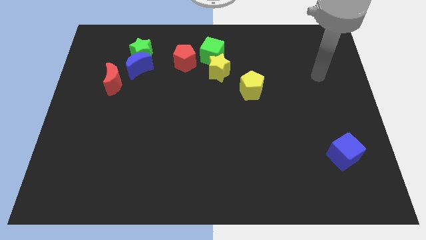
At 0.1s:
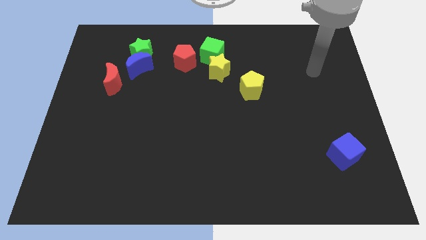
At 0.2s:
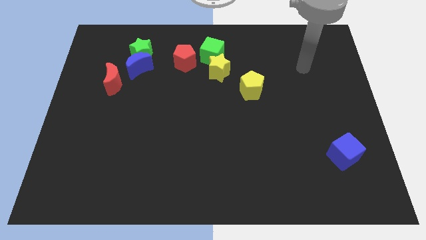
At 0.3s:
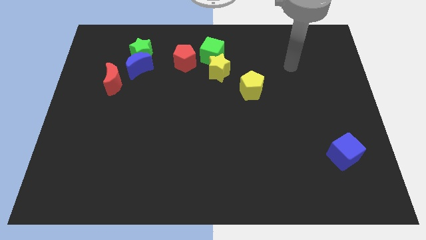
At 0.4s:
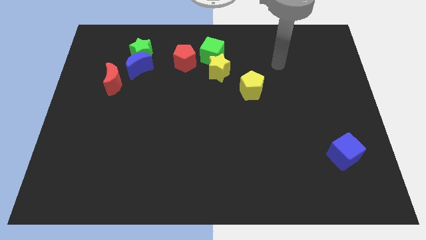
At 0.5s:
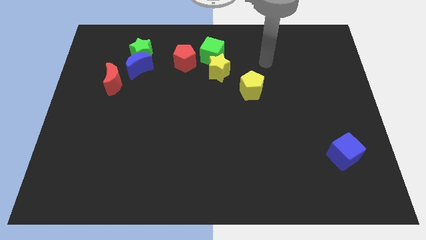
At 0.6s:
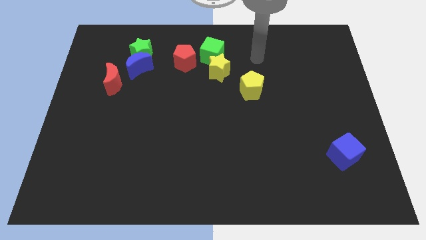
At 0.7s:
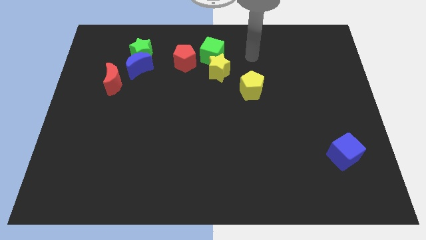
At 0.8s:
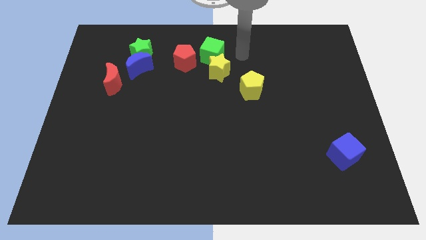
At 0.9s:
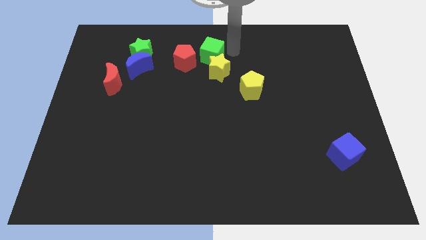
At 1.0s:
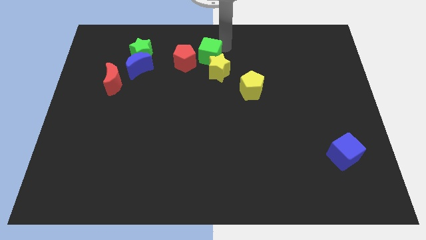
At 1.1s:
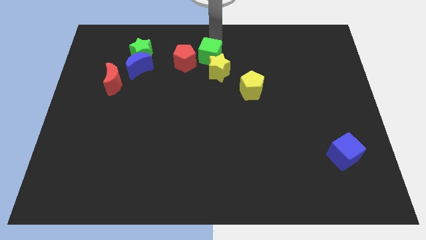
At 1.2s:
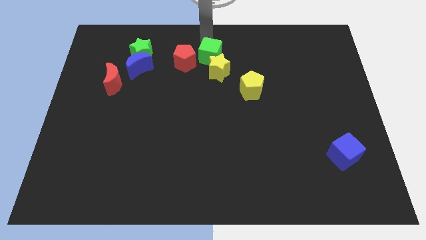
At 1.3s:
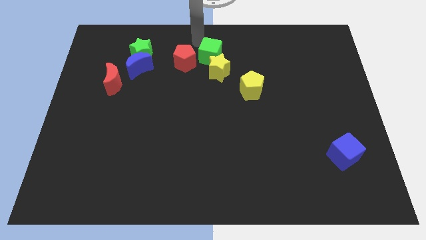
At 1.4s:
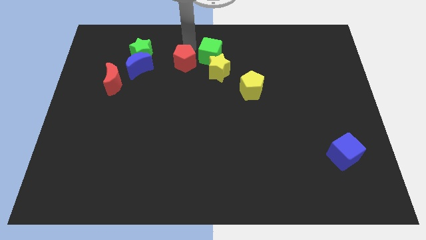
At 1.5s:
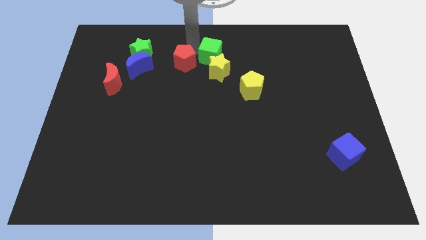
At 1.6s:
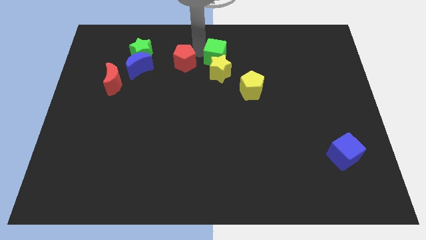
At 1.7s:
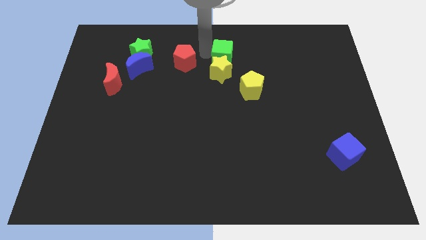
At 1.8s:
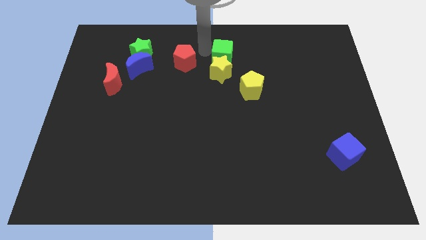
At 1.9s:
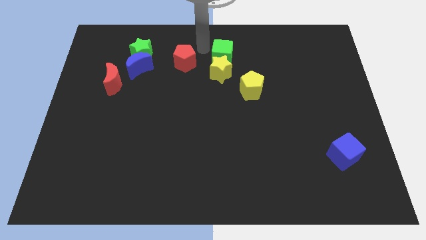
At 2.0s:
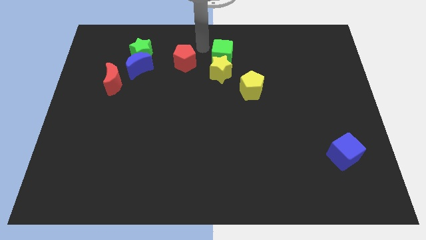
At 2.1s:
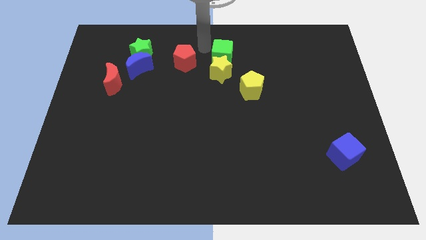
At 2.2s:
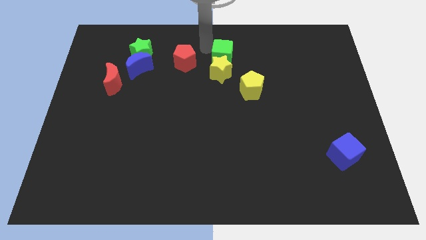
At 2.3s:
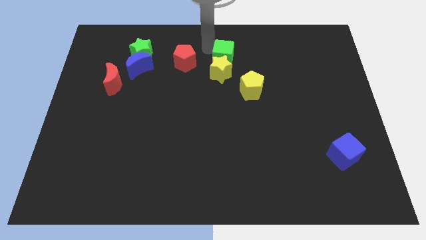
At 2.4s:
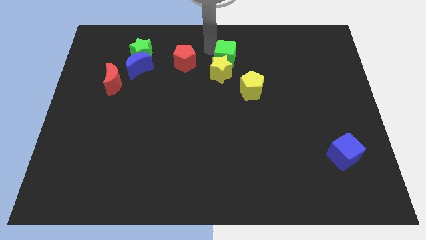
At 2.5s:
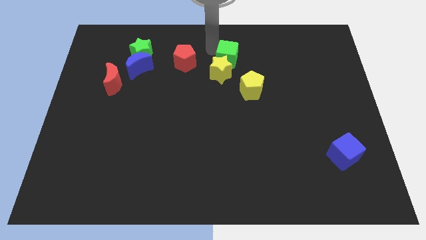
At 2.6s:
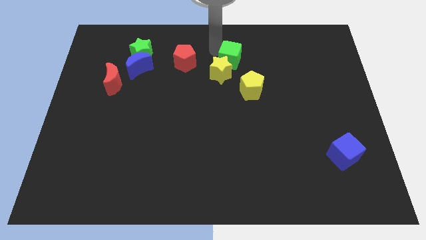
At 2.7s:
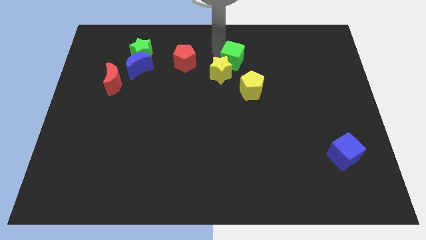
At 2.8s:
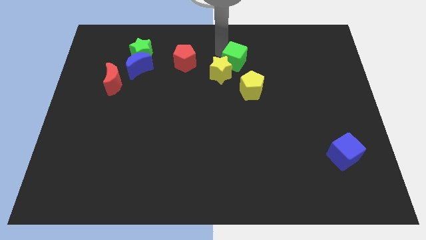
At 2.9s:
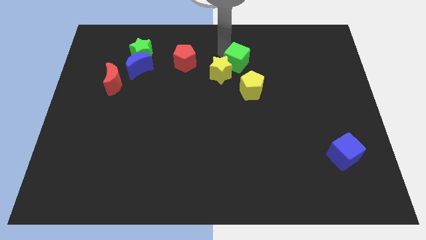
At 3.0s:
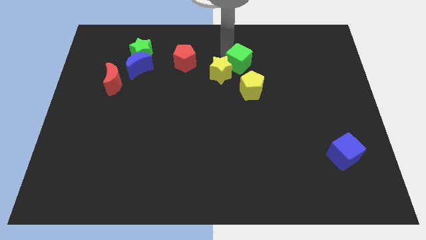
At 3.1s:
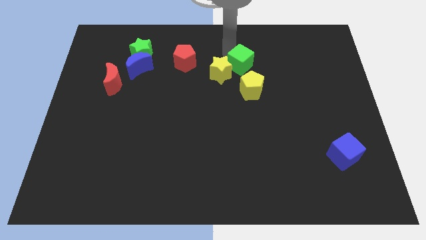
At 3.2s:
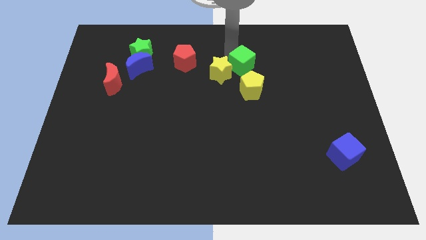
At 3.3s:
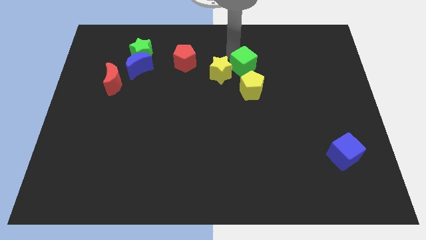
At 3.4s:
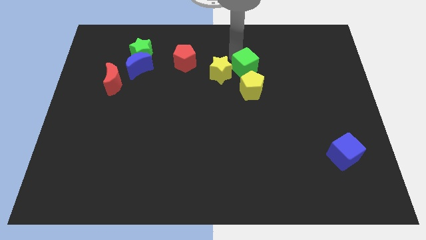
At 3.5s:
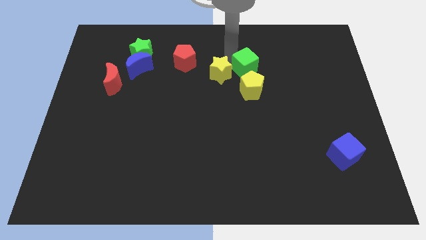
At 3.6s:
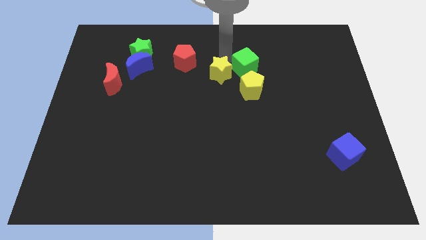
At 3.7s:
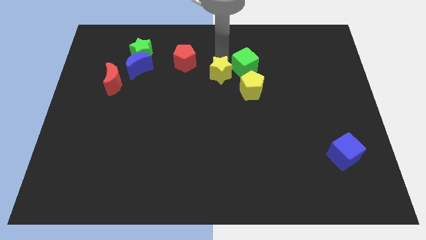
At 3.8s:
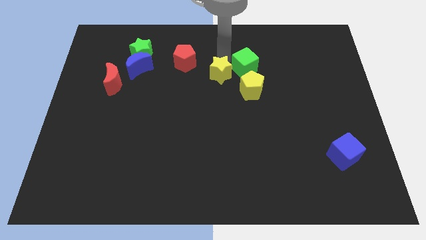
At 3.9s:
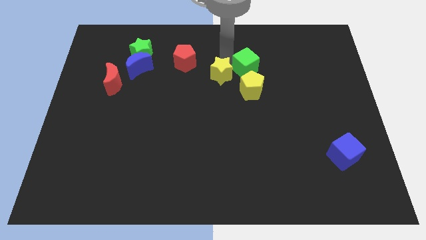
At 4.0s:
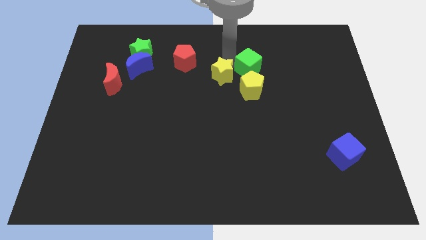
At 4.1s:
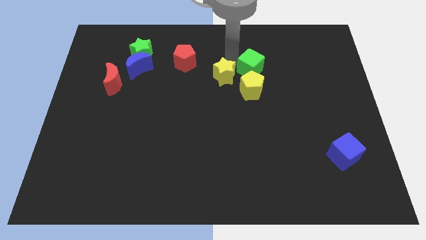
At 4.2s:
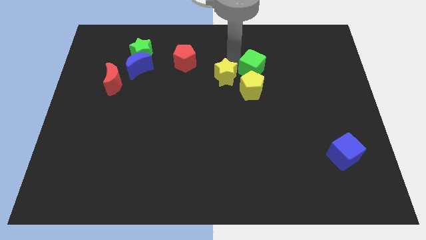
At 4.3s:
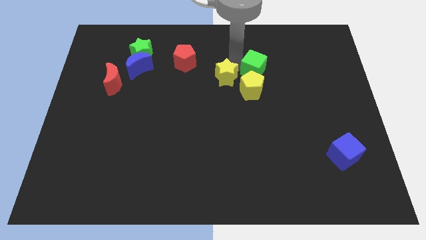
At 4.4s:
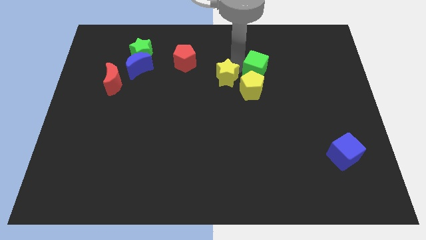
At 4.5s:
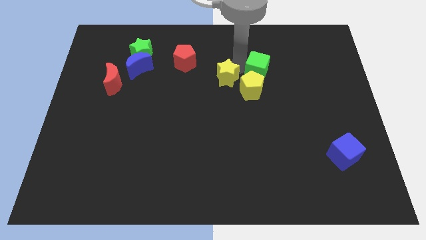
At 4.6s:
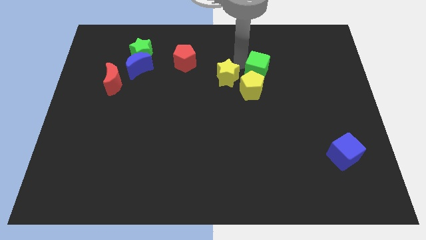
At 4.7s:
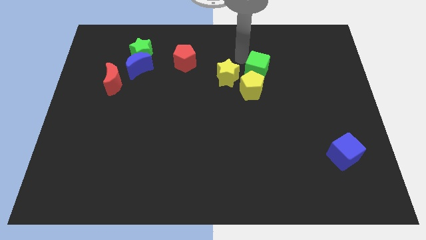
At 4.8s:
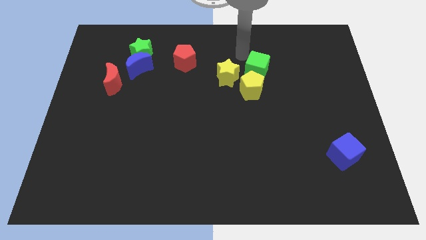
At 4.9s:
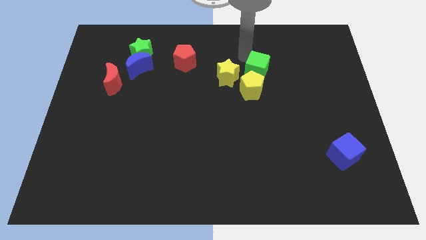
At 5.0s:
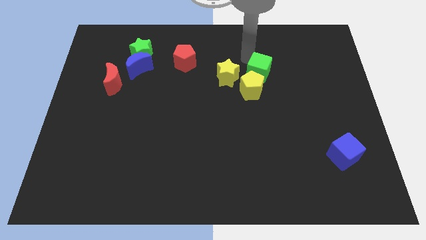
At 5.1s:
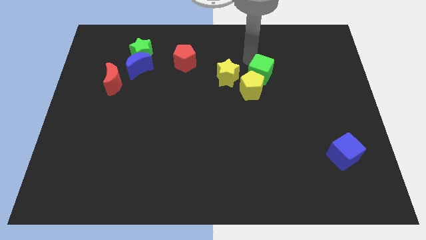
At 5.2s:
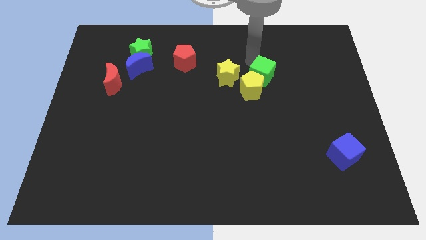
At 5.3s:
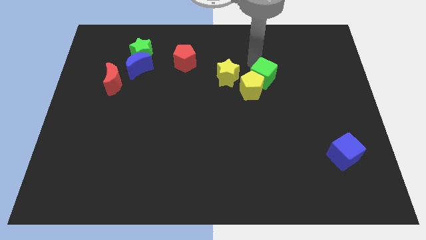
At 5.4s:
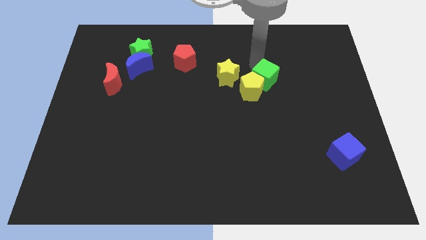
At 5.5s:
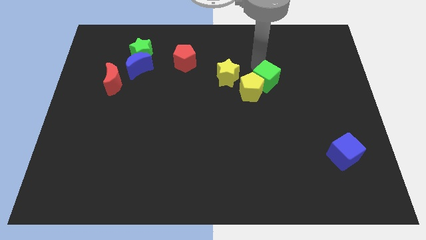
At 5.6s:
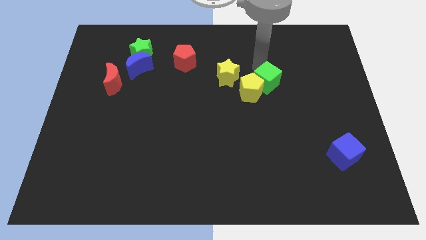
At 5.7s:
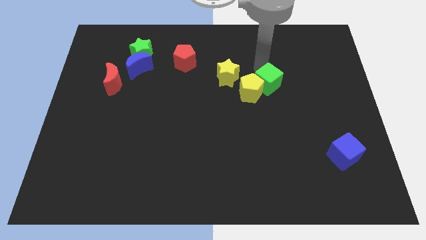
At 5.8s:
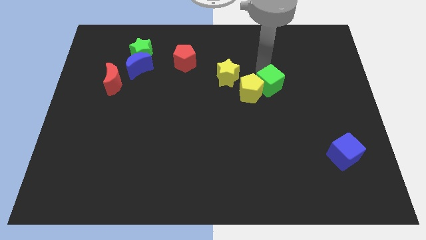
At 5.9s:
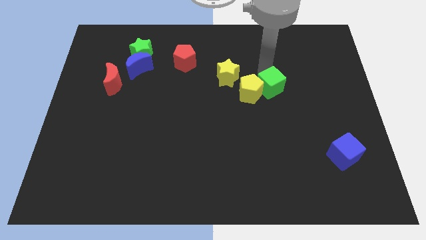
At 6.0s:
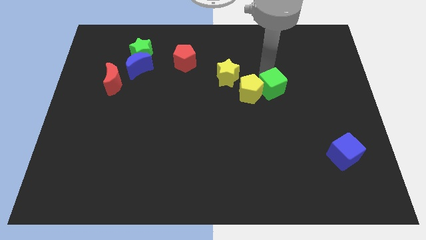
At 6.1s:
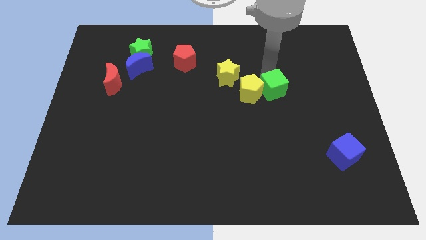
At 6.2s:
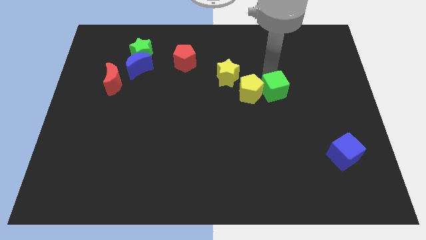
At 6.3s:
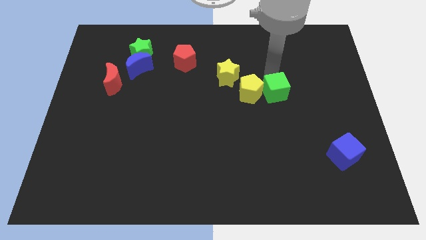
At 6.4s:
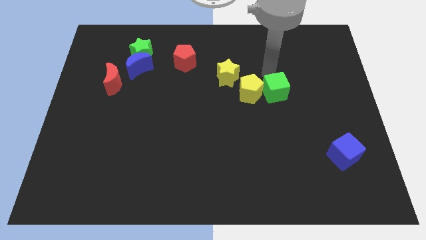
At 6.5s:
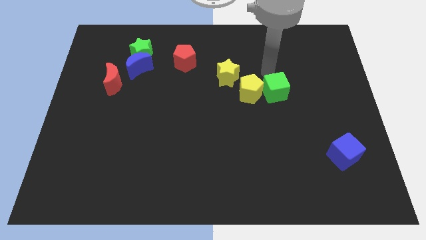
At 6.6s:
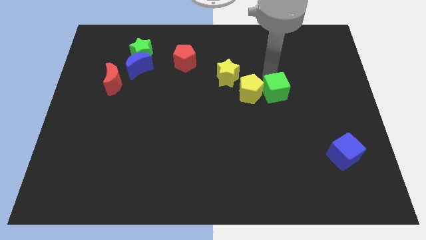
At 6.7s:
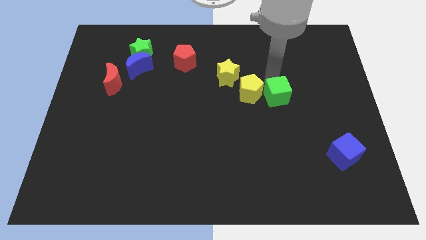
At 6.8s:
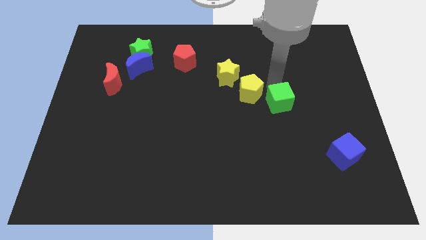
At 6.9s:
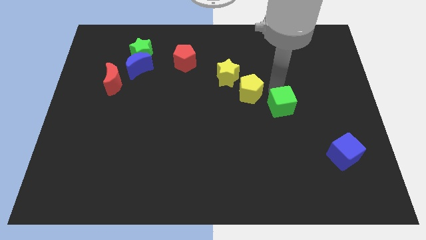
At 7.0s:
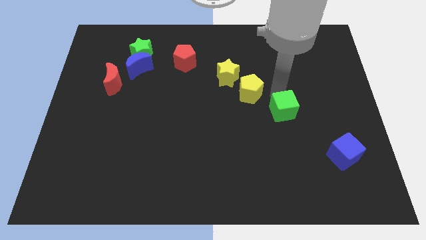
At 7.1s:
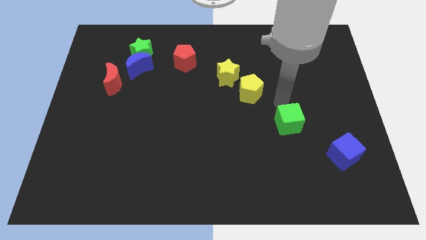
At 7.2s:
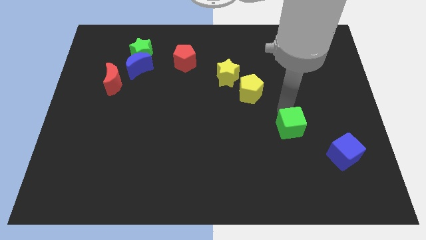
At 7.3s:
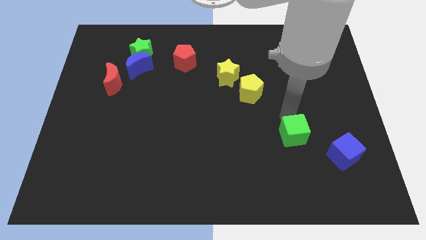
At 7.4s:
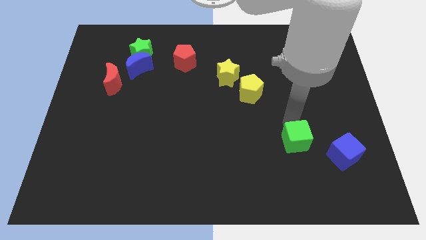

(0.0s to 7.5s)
slide the green cube to the left of the blue cube

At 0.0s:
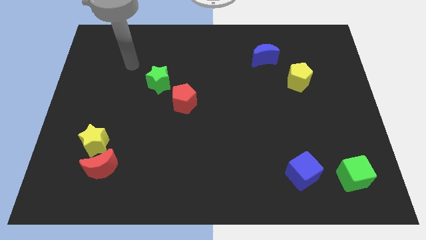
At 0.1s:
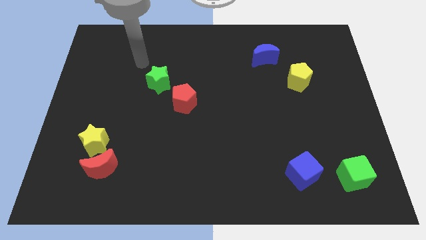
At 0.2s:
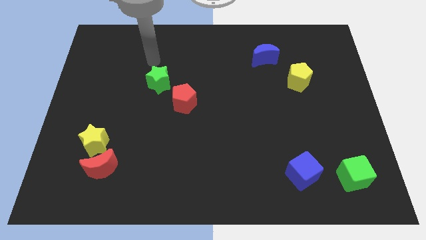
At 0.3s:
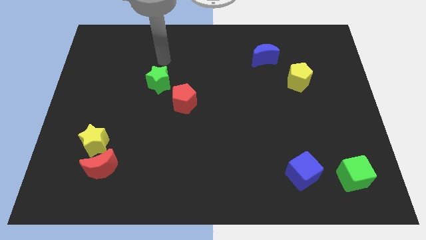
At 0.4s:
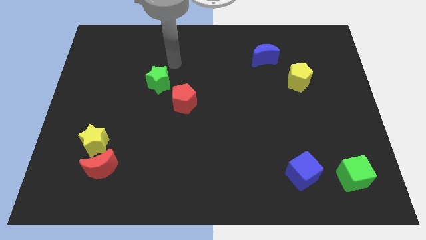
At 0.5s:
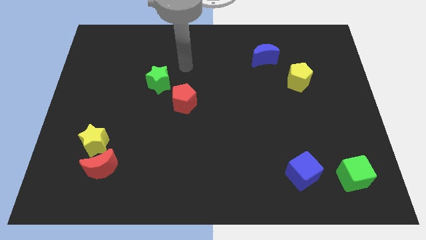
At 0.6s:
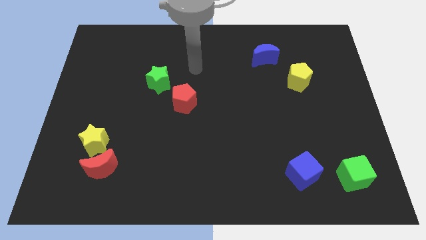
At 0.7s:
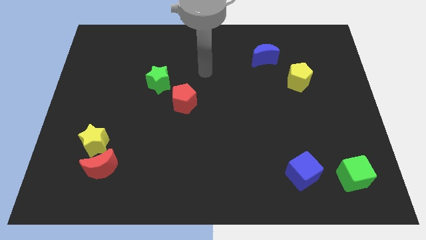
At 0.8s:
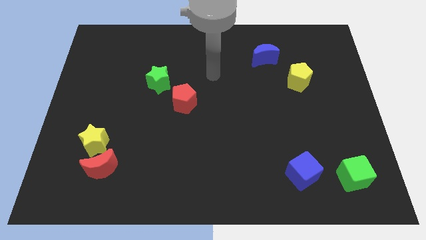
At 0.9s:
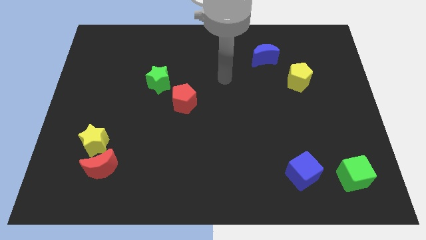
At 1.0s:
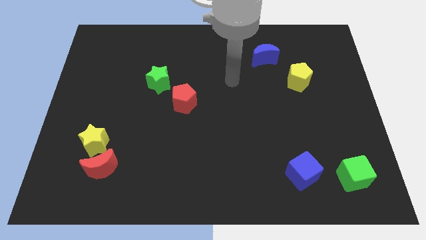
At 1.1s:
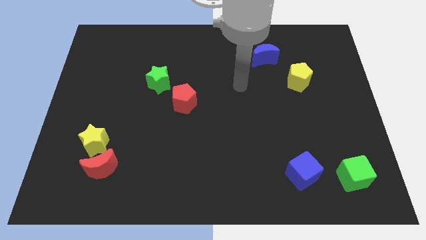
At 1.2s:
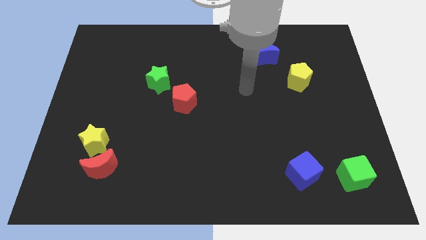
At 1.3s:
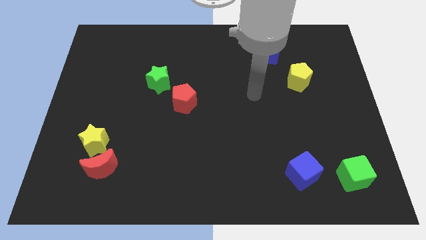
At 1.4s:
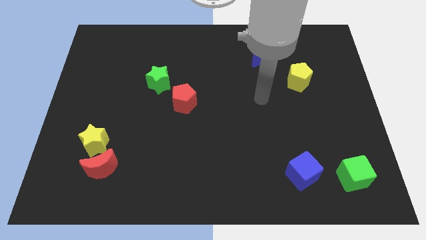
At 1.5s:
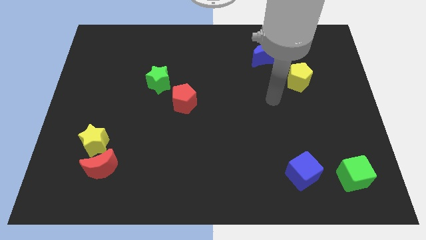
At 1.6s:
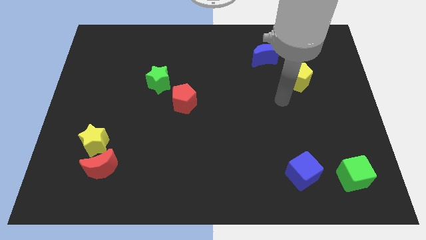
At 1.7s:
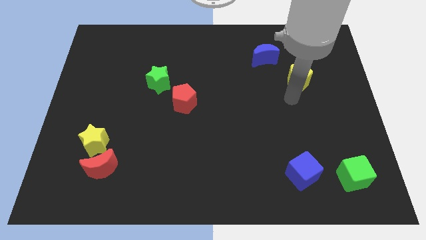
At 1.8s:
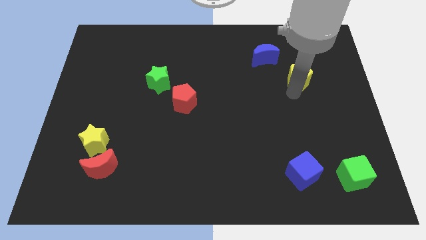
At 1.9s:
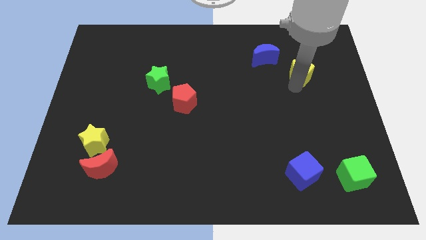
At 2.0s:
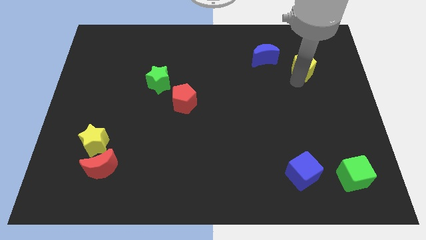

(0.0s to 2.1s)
slide the yellow pentagon to the right side of the blue moon
